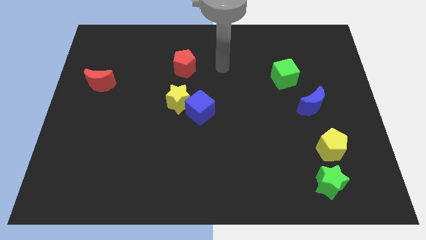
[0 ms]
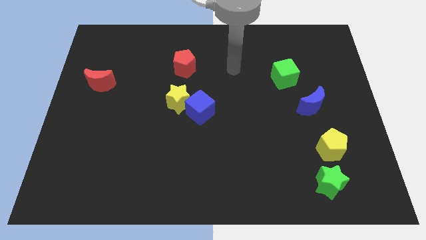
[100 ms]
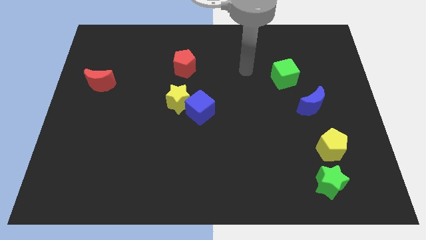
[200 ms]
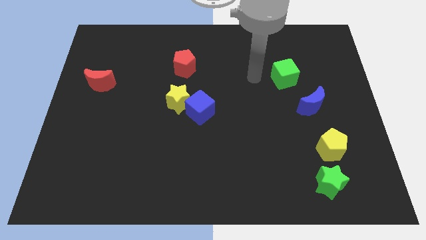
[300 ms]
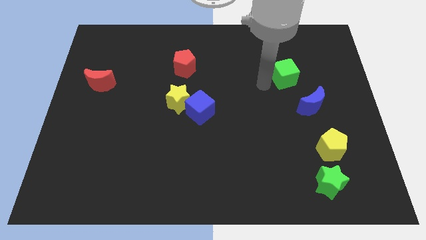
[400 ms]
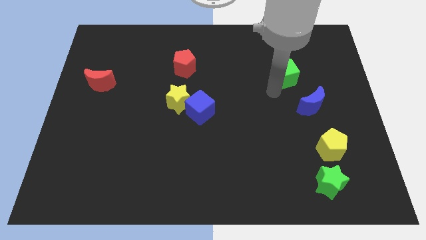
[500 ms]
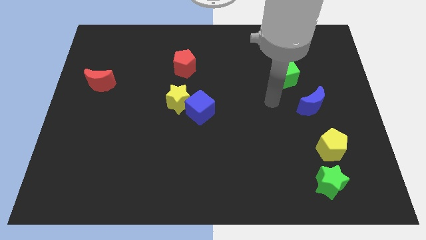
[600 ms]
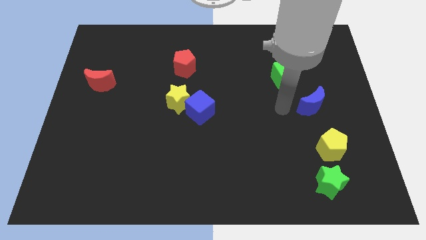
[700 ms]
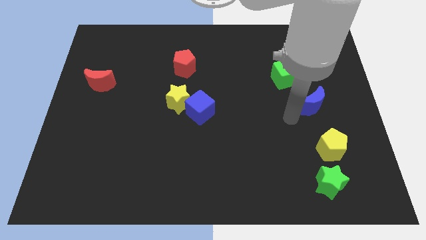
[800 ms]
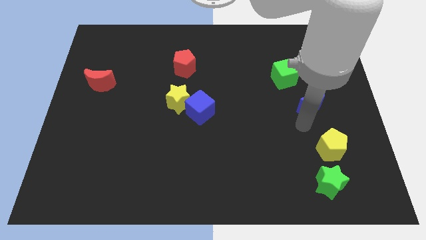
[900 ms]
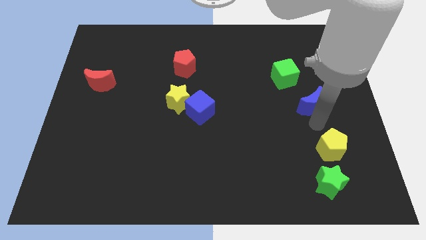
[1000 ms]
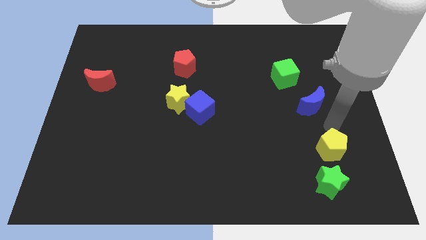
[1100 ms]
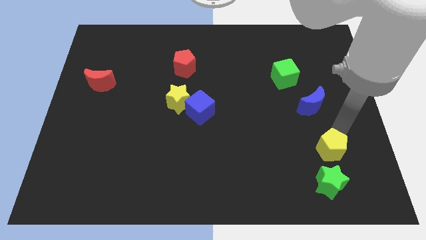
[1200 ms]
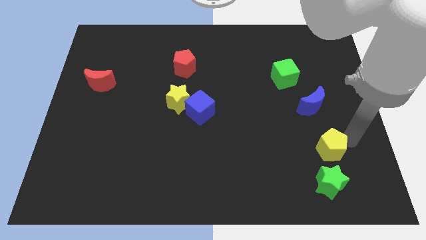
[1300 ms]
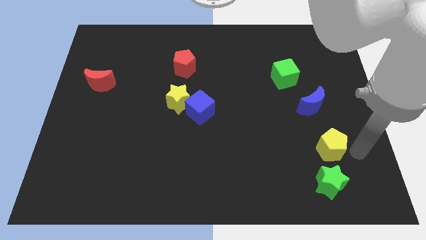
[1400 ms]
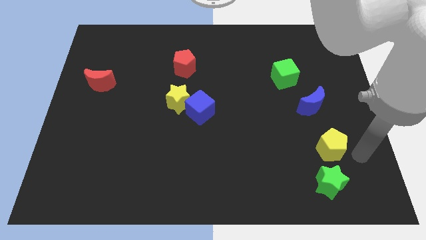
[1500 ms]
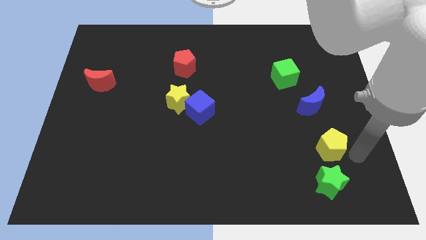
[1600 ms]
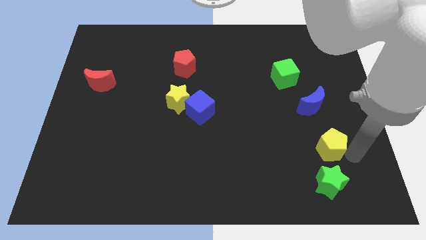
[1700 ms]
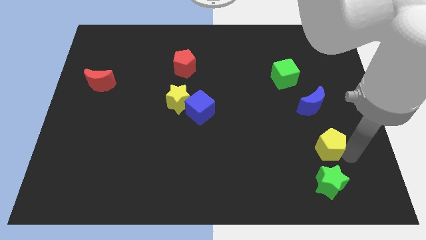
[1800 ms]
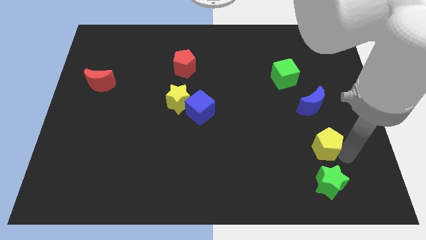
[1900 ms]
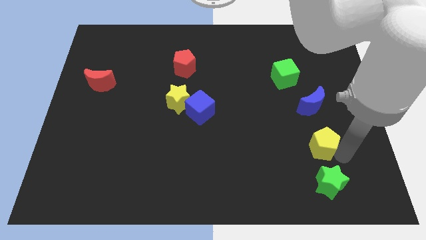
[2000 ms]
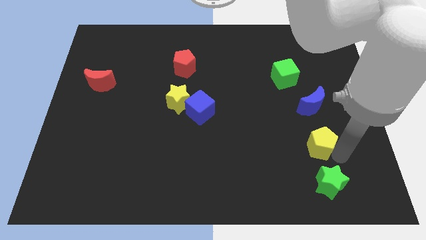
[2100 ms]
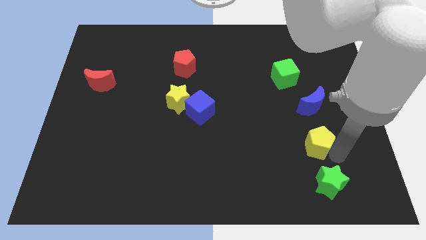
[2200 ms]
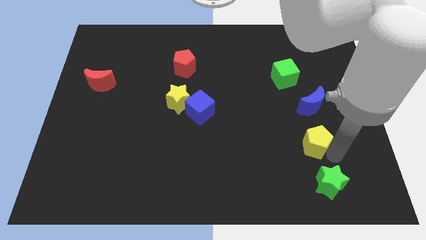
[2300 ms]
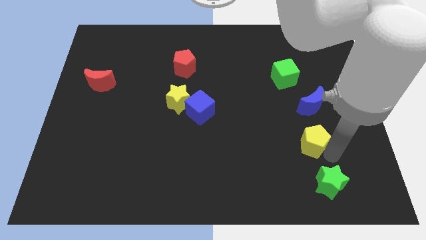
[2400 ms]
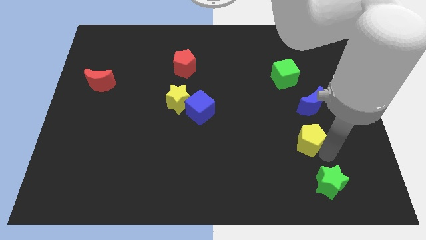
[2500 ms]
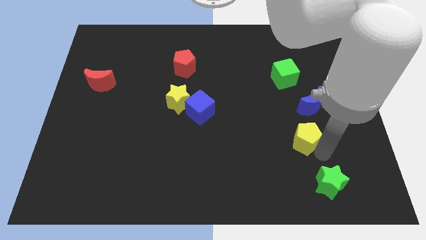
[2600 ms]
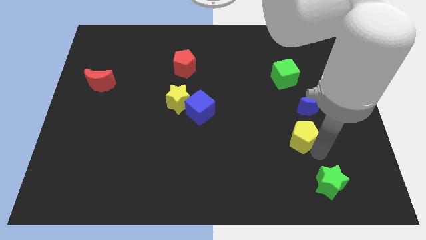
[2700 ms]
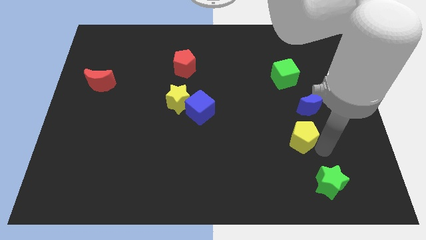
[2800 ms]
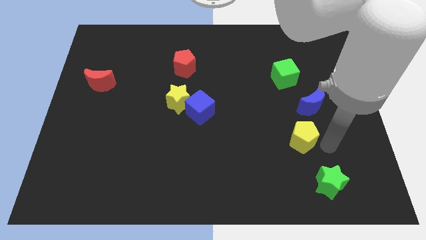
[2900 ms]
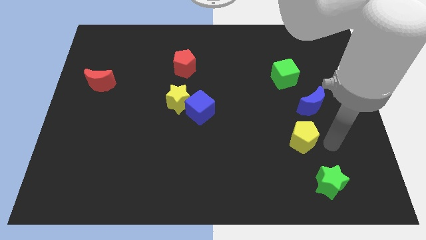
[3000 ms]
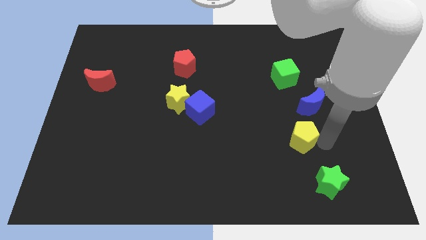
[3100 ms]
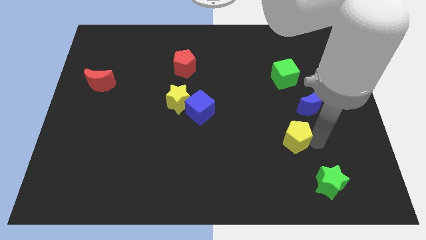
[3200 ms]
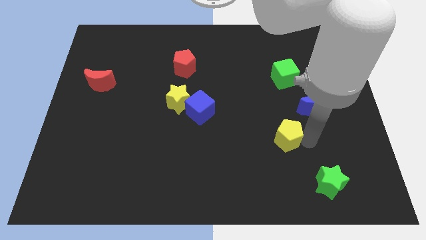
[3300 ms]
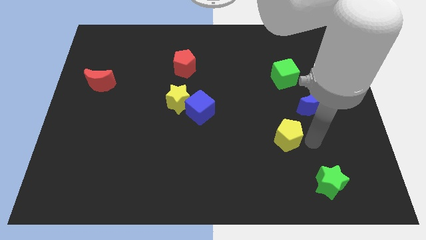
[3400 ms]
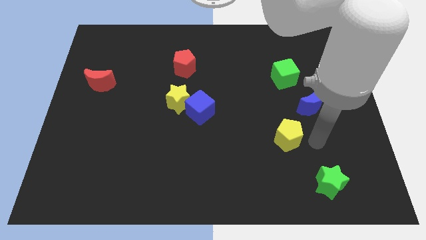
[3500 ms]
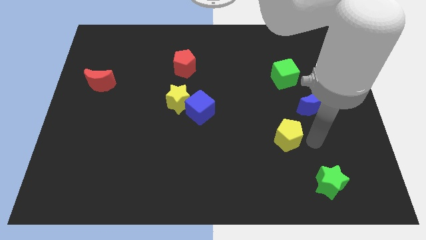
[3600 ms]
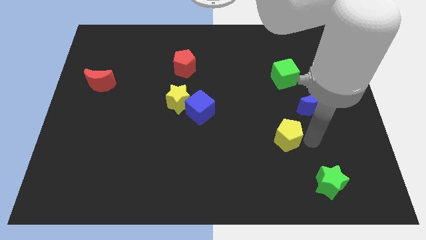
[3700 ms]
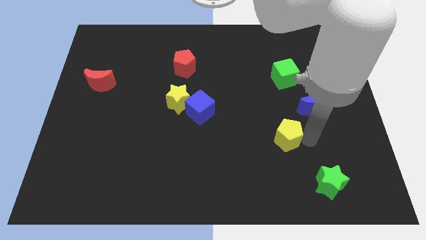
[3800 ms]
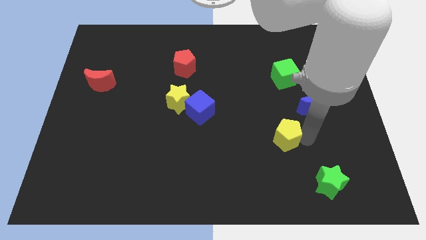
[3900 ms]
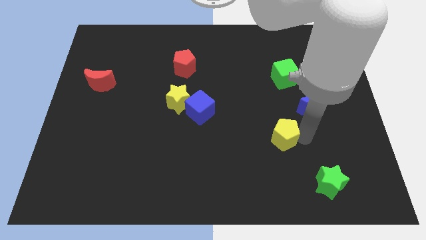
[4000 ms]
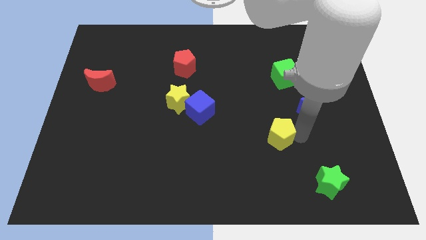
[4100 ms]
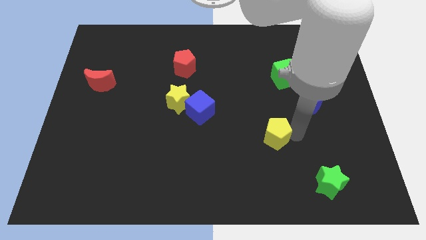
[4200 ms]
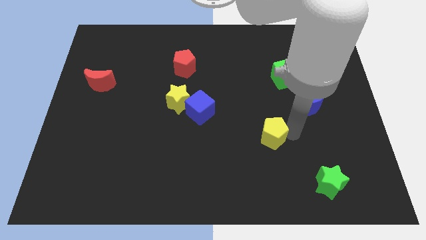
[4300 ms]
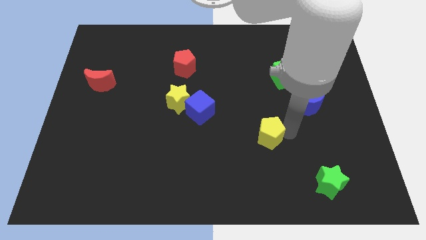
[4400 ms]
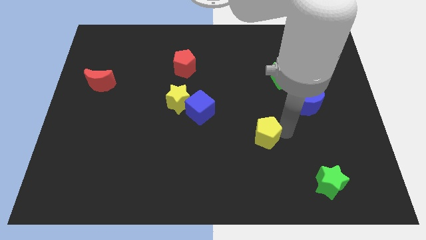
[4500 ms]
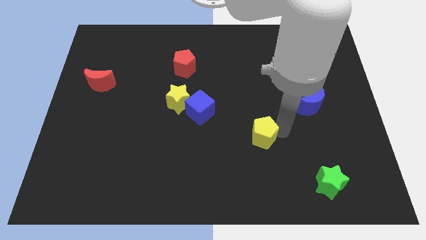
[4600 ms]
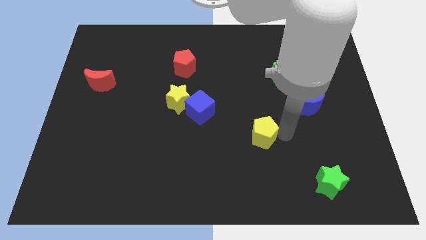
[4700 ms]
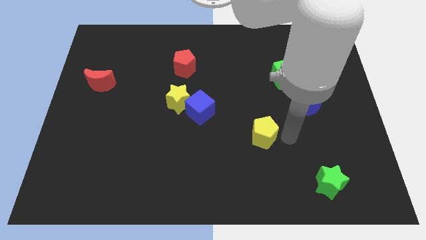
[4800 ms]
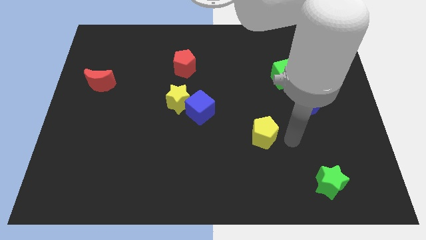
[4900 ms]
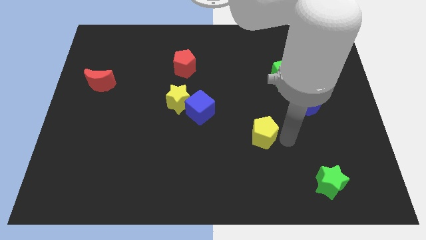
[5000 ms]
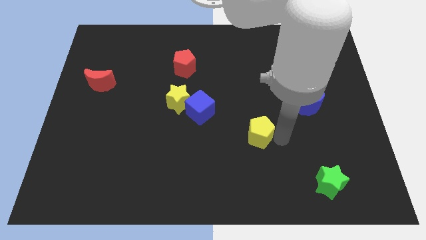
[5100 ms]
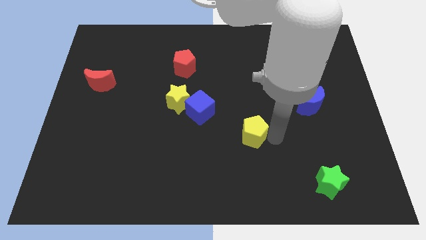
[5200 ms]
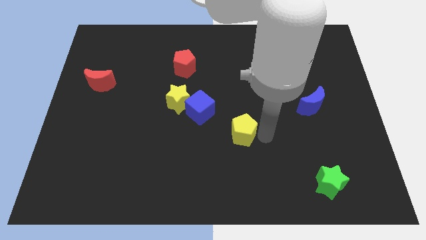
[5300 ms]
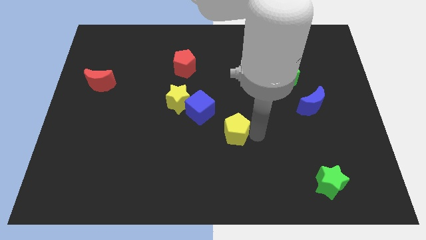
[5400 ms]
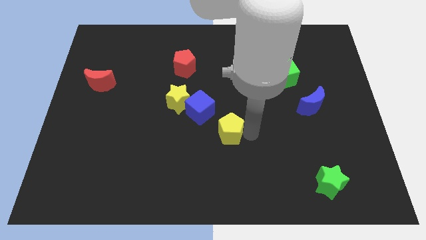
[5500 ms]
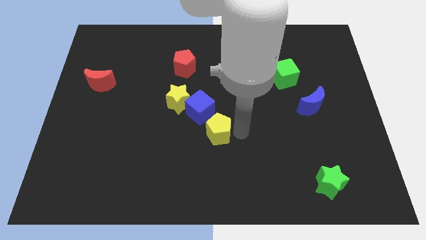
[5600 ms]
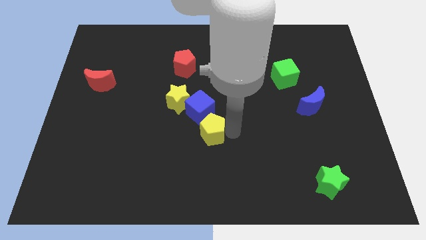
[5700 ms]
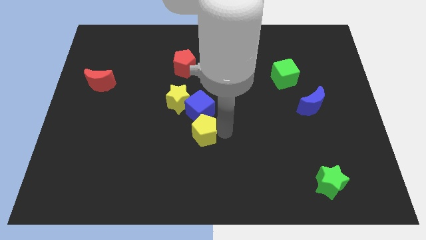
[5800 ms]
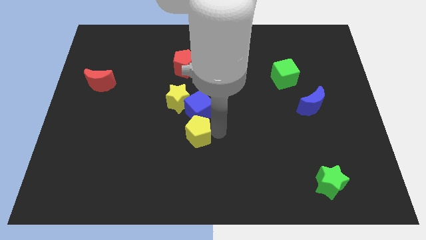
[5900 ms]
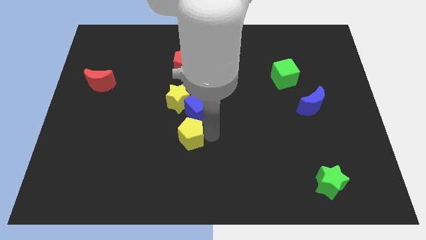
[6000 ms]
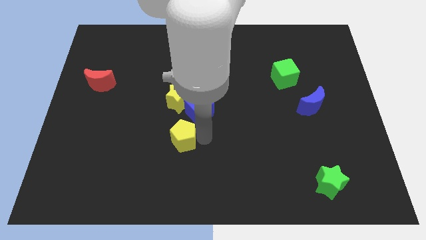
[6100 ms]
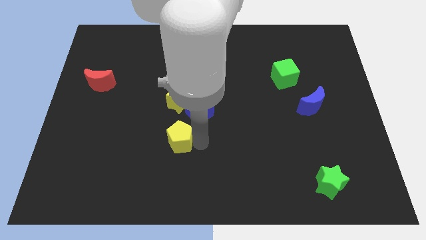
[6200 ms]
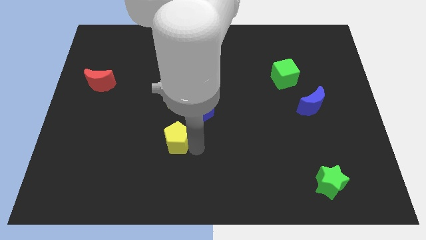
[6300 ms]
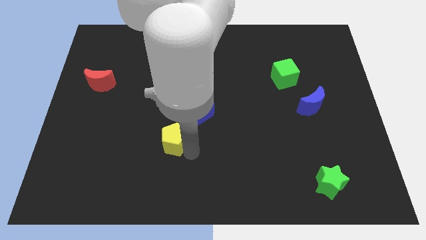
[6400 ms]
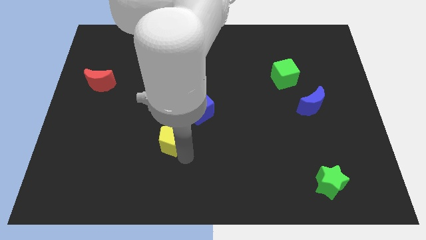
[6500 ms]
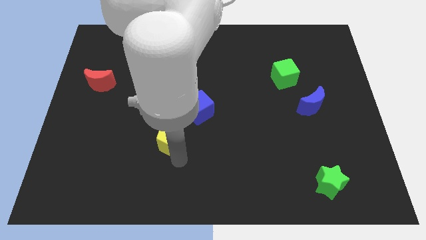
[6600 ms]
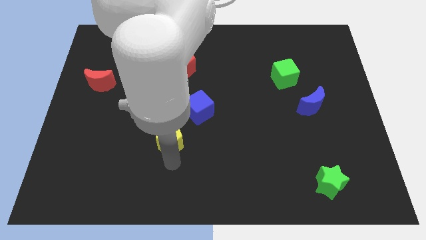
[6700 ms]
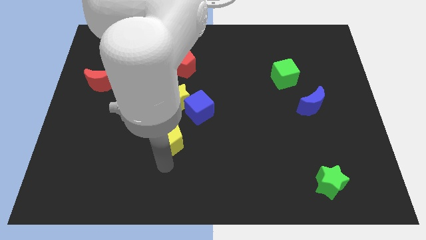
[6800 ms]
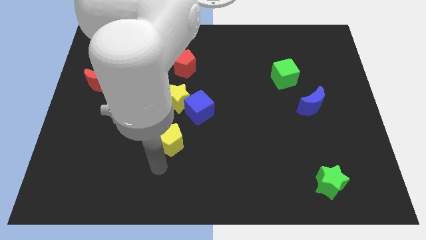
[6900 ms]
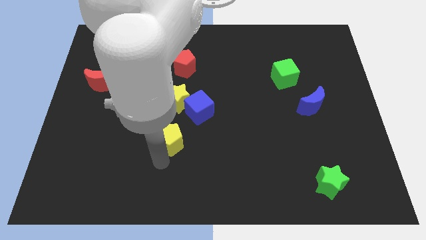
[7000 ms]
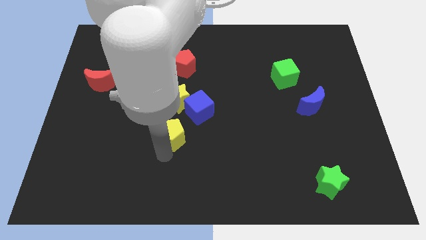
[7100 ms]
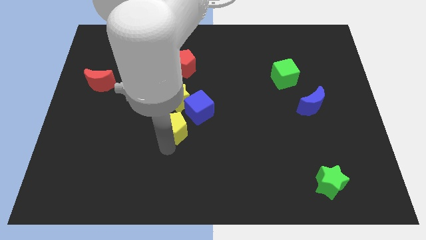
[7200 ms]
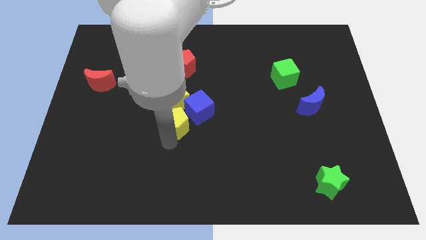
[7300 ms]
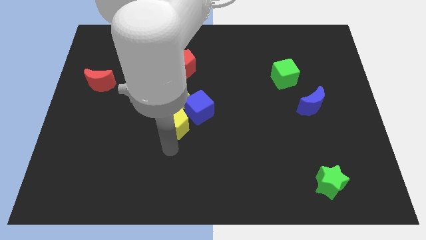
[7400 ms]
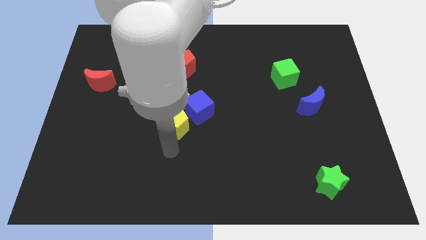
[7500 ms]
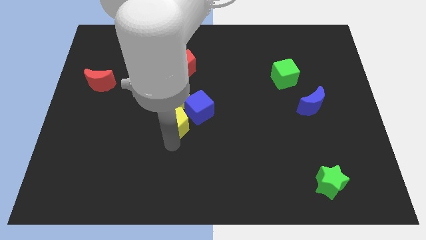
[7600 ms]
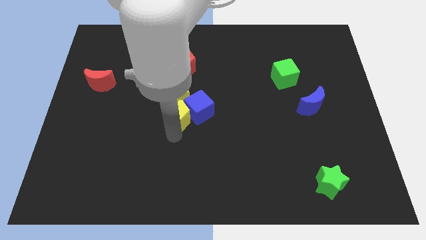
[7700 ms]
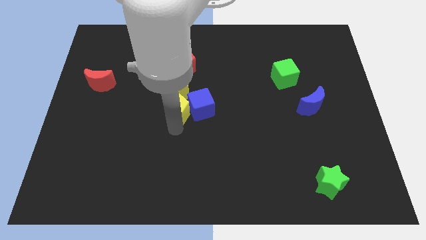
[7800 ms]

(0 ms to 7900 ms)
put the yellow pentagon below the red pentagon

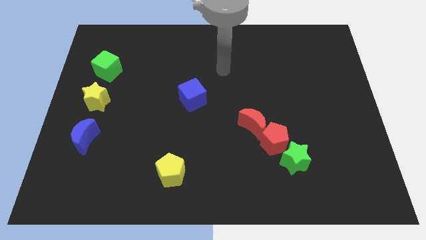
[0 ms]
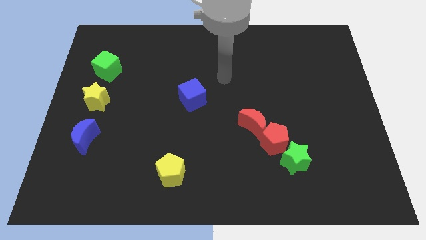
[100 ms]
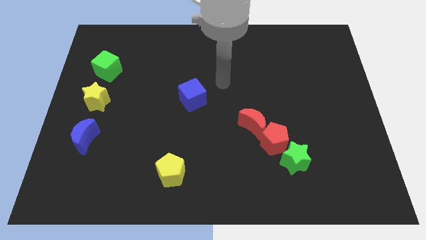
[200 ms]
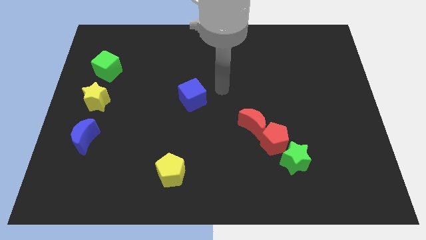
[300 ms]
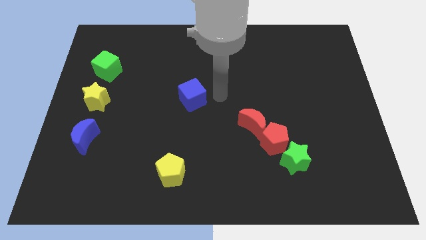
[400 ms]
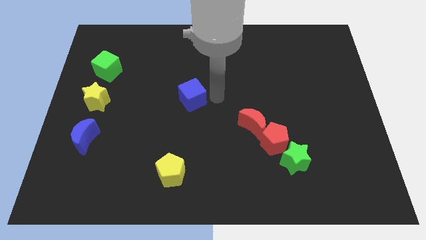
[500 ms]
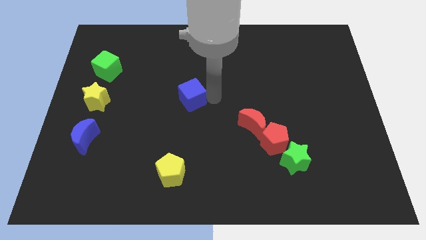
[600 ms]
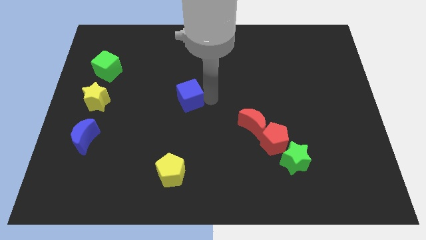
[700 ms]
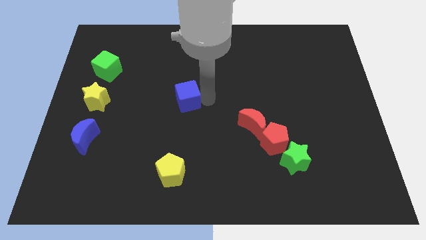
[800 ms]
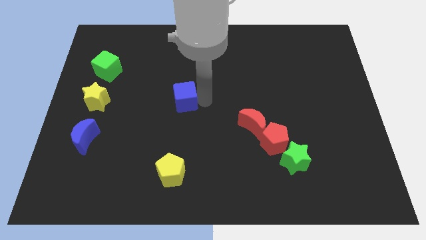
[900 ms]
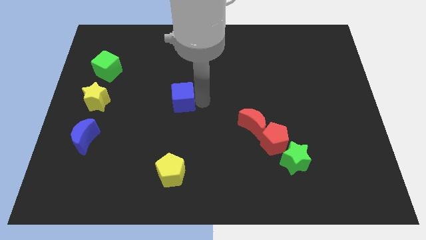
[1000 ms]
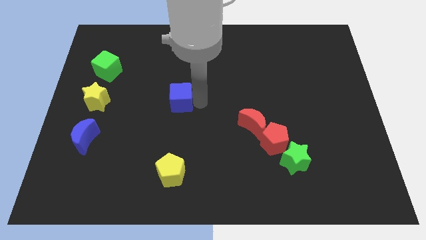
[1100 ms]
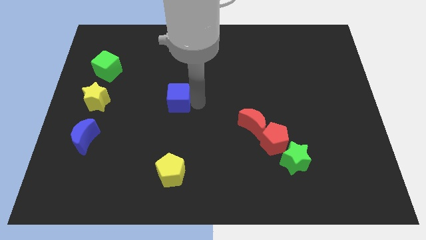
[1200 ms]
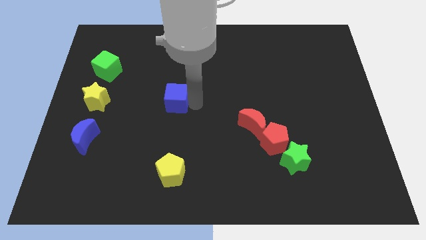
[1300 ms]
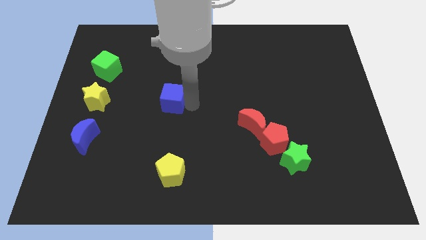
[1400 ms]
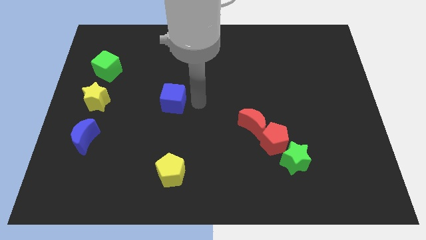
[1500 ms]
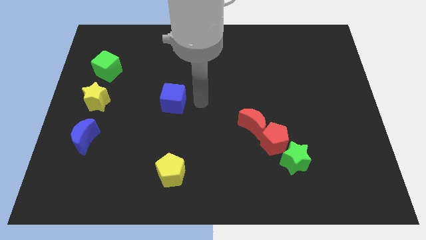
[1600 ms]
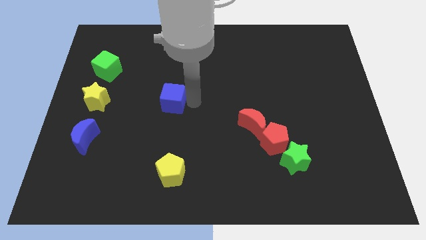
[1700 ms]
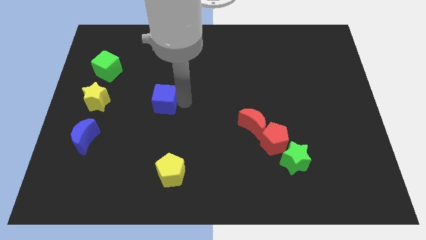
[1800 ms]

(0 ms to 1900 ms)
slide the blue cube to the right of the yellow star
